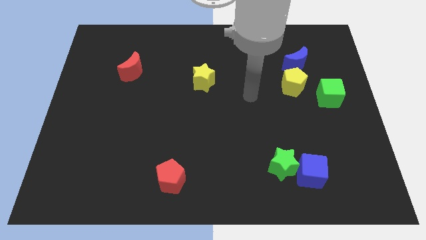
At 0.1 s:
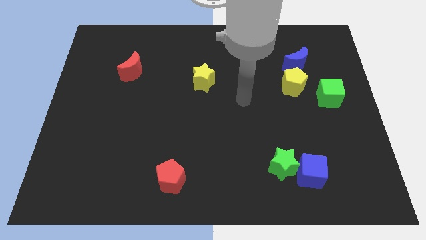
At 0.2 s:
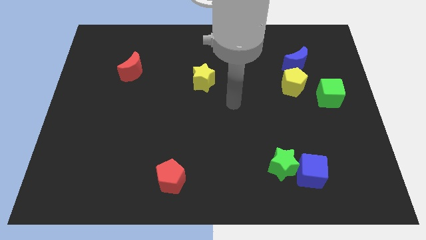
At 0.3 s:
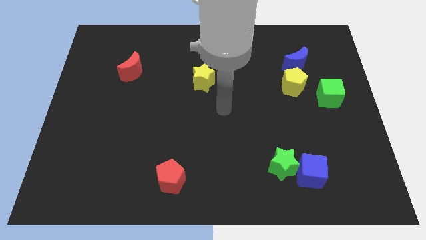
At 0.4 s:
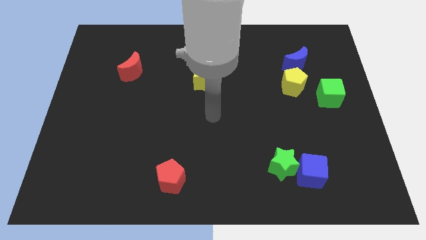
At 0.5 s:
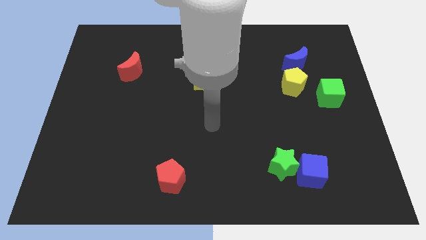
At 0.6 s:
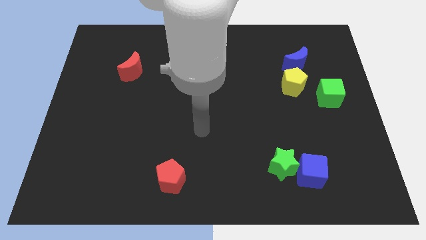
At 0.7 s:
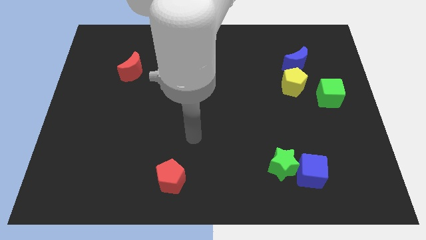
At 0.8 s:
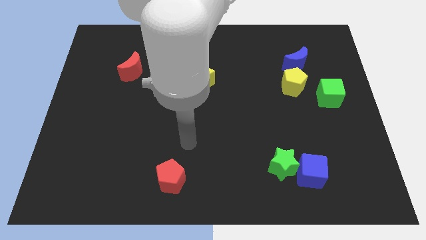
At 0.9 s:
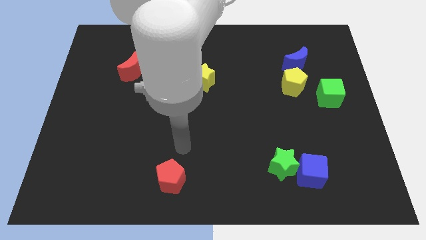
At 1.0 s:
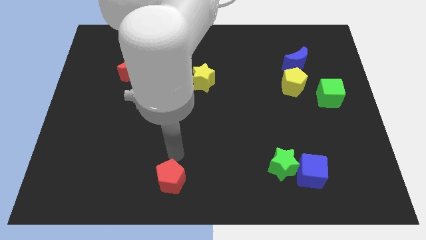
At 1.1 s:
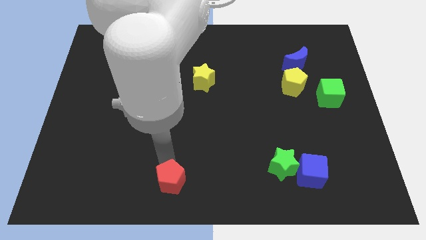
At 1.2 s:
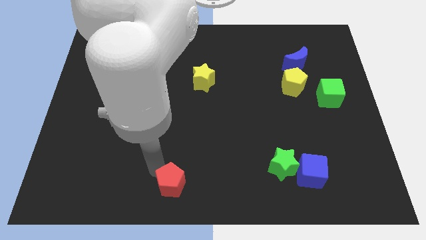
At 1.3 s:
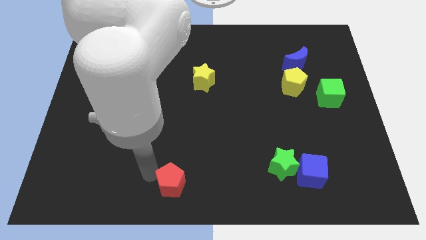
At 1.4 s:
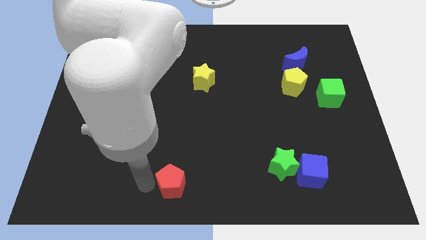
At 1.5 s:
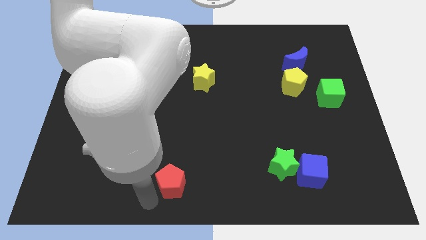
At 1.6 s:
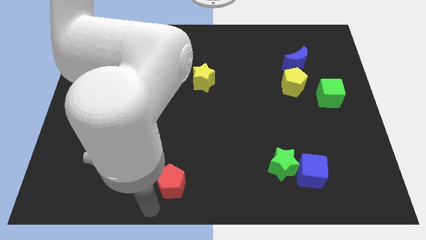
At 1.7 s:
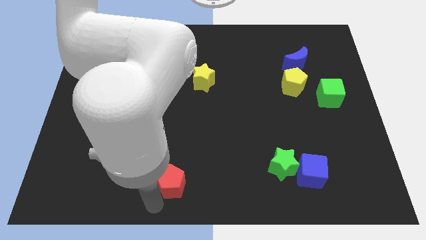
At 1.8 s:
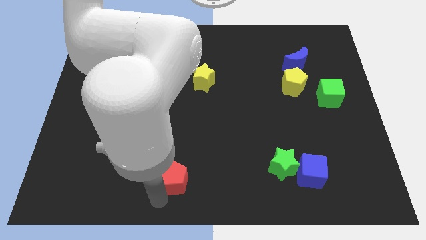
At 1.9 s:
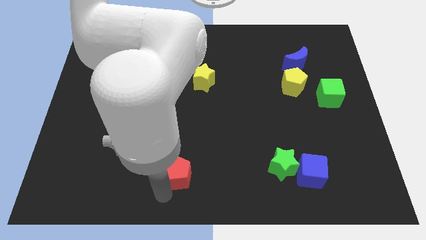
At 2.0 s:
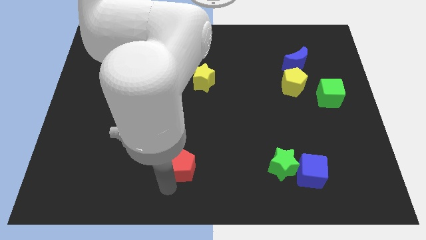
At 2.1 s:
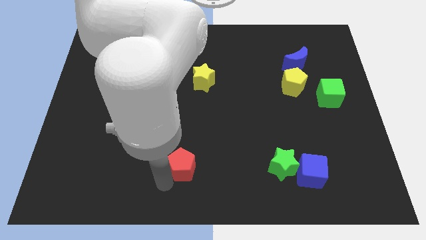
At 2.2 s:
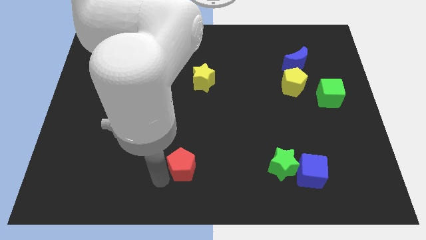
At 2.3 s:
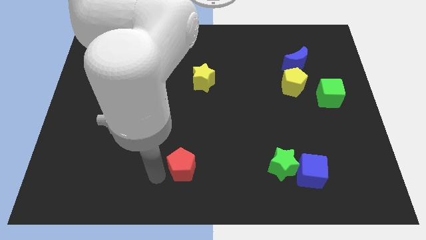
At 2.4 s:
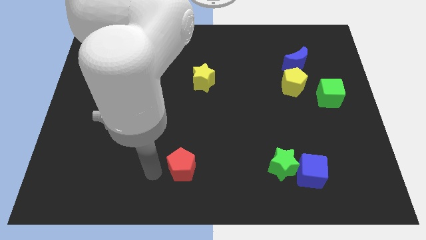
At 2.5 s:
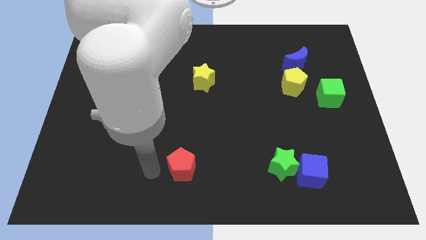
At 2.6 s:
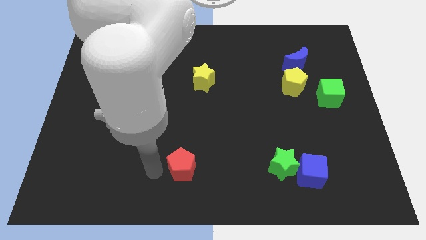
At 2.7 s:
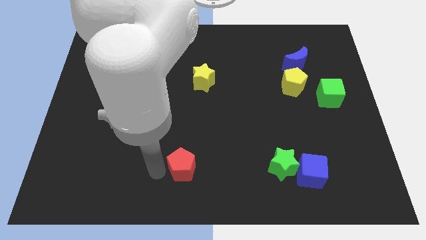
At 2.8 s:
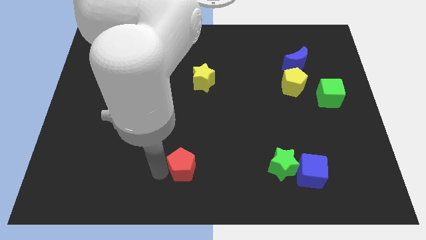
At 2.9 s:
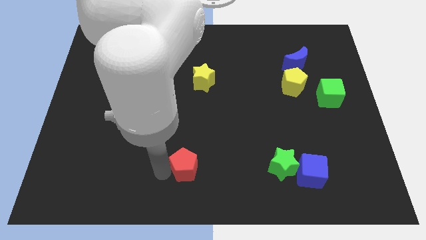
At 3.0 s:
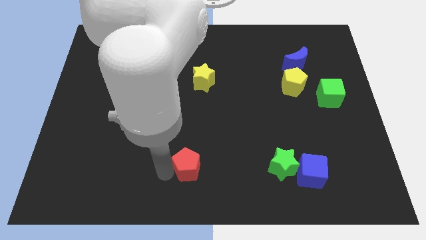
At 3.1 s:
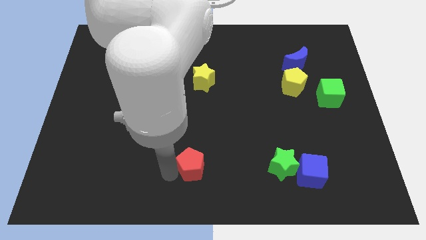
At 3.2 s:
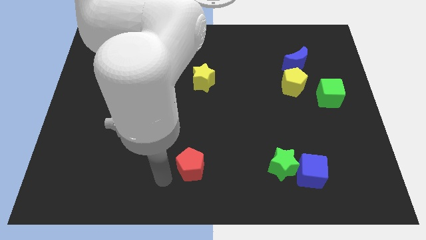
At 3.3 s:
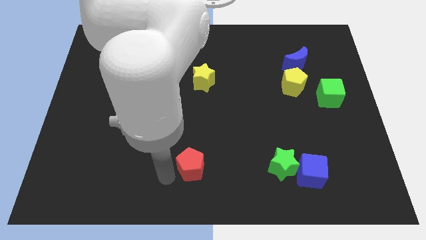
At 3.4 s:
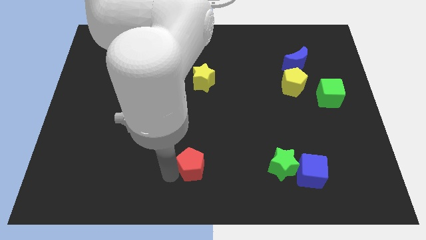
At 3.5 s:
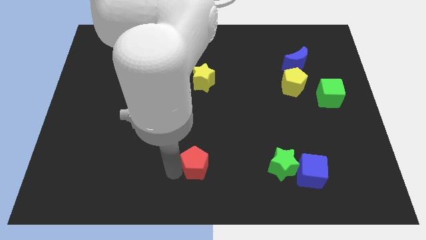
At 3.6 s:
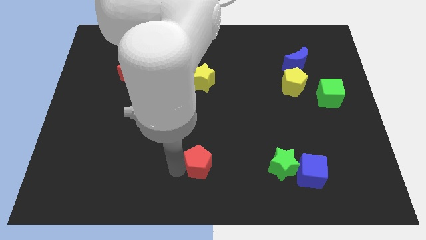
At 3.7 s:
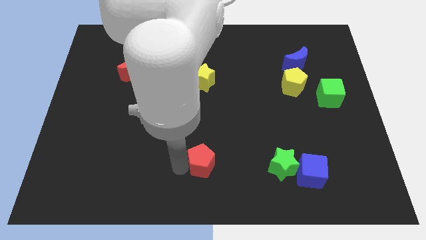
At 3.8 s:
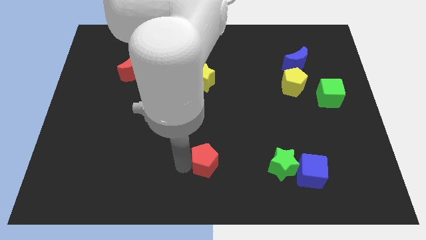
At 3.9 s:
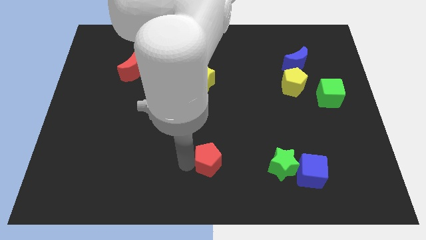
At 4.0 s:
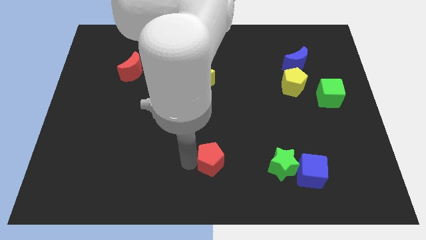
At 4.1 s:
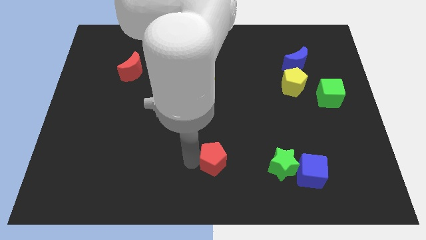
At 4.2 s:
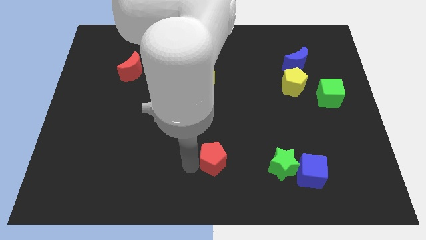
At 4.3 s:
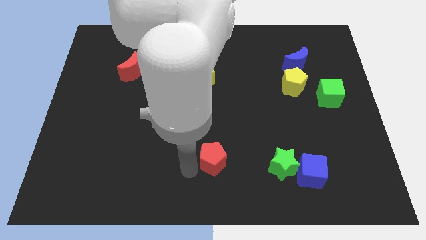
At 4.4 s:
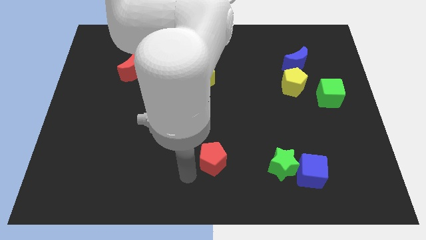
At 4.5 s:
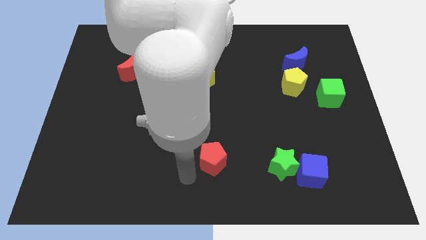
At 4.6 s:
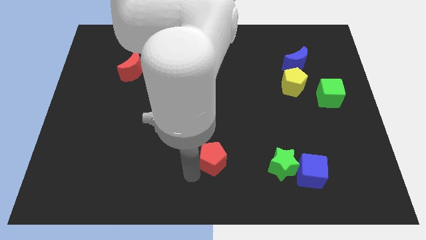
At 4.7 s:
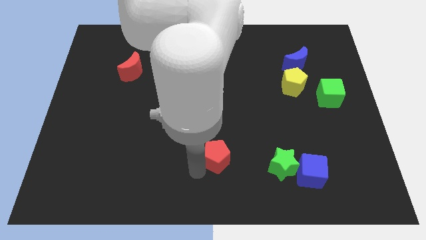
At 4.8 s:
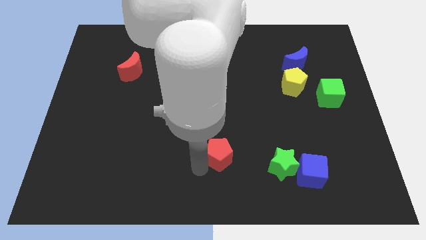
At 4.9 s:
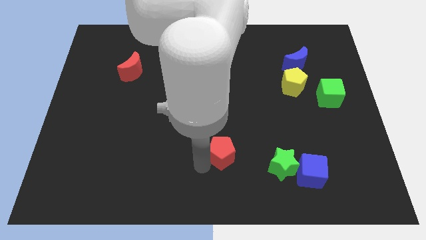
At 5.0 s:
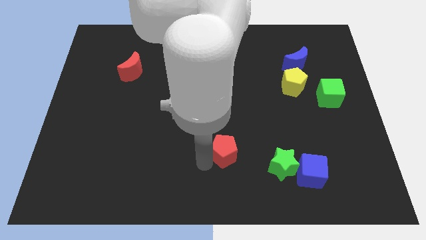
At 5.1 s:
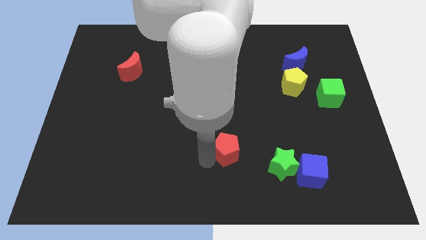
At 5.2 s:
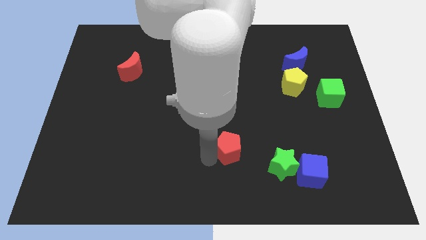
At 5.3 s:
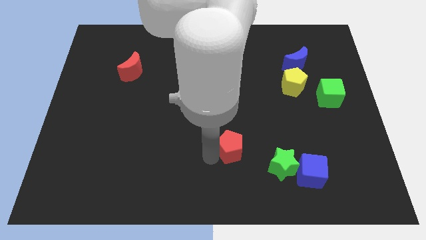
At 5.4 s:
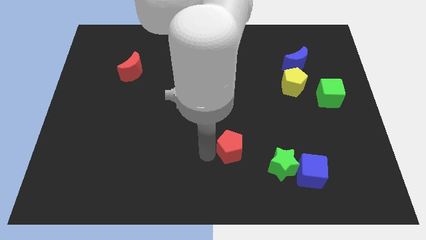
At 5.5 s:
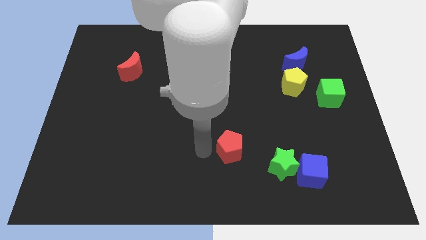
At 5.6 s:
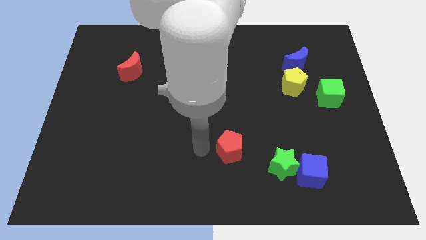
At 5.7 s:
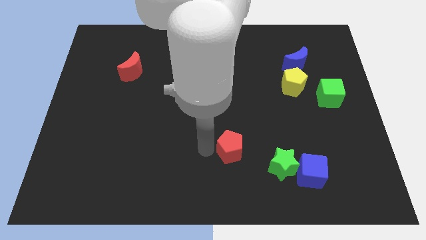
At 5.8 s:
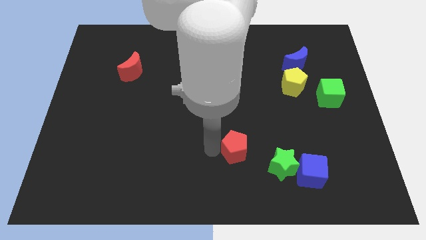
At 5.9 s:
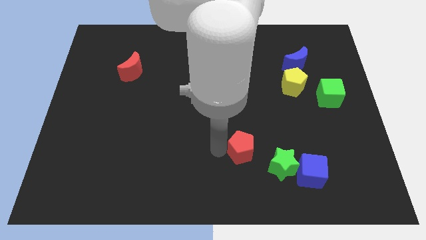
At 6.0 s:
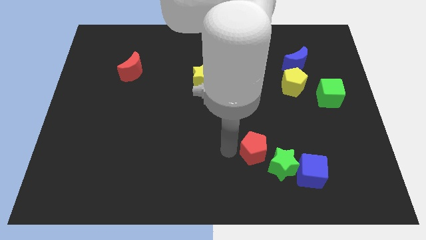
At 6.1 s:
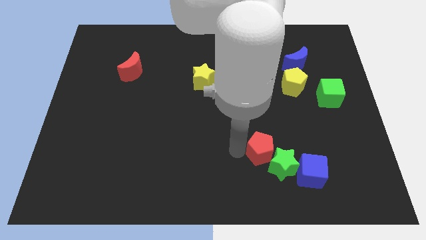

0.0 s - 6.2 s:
move the red pentagon to the top left side of the blue cube
